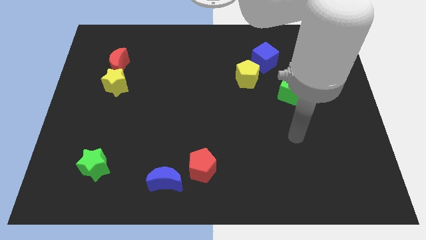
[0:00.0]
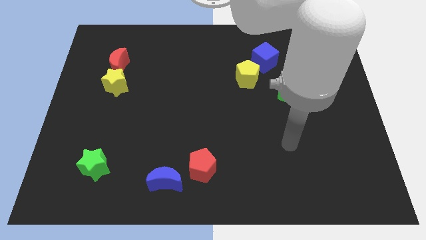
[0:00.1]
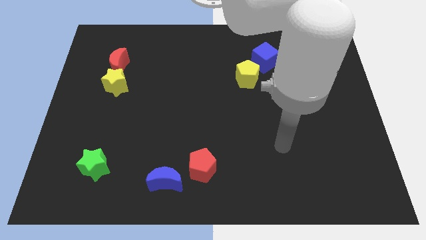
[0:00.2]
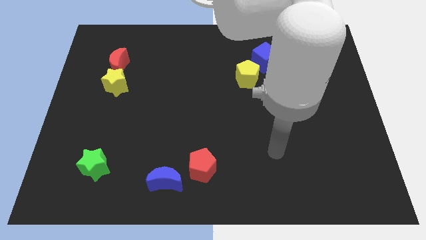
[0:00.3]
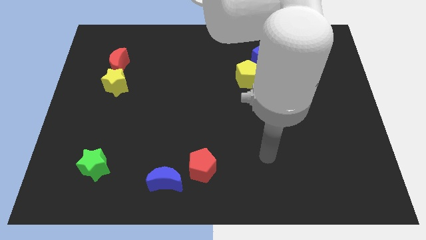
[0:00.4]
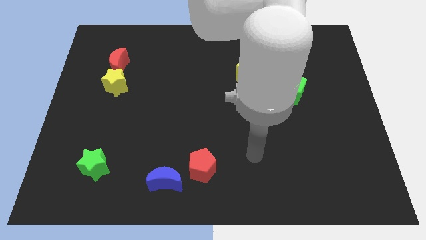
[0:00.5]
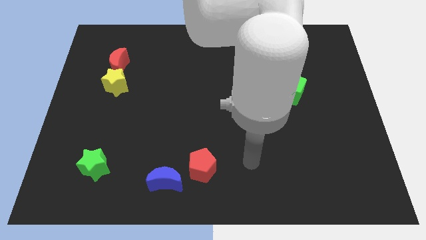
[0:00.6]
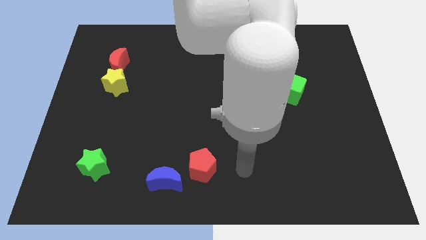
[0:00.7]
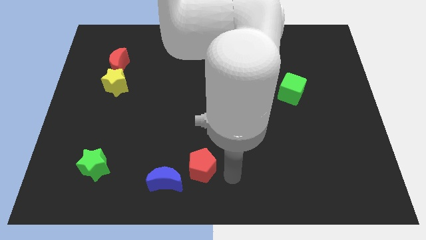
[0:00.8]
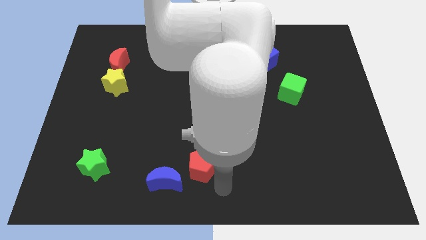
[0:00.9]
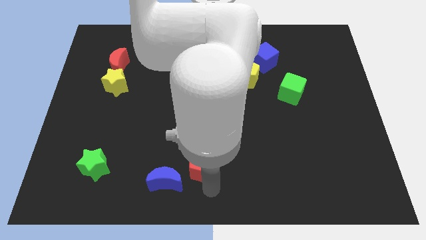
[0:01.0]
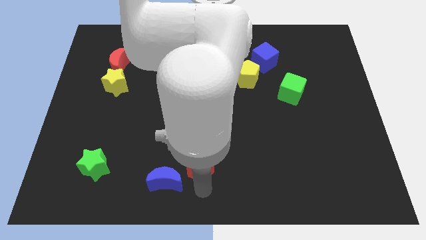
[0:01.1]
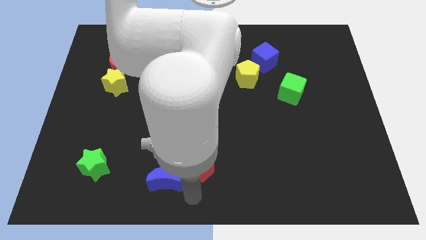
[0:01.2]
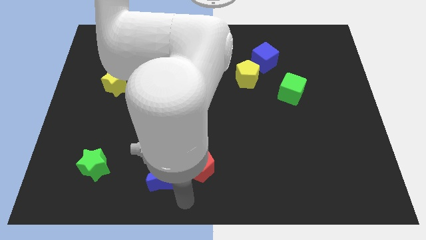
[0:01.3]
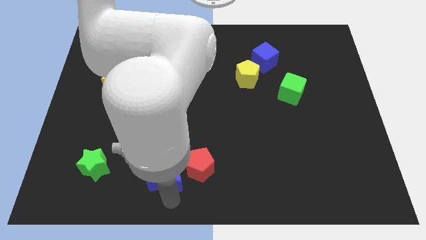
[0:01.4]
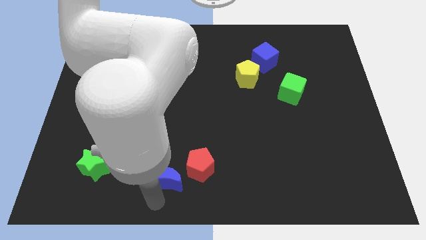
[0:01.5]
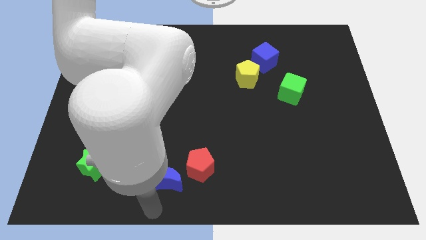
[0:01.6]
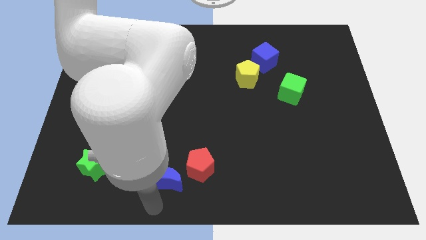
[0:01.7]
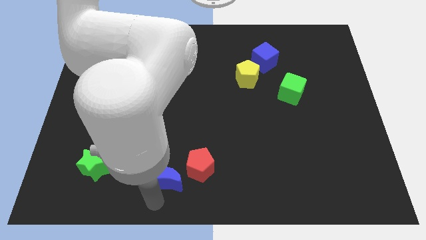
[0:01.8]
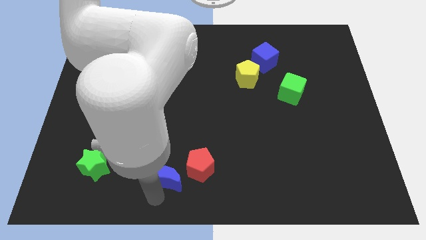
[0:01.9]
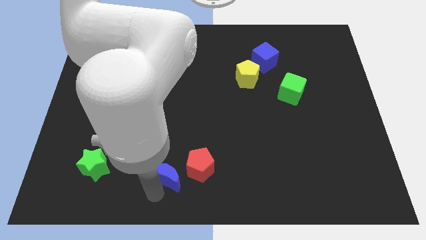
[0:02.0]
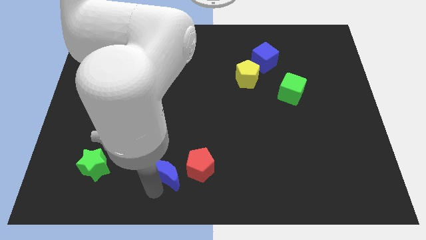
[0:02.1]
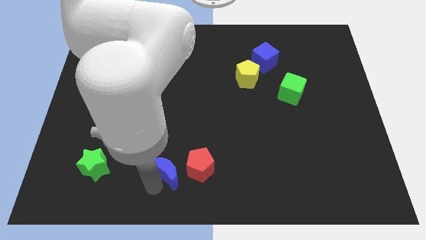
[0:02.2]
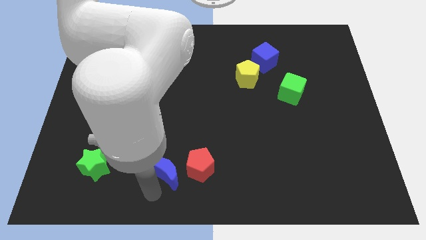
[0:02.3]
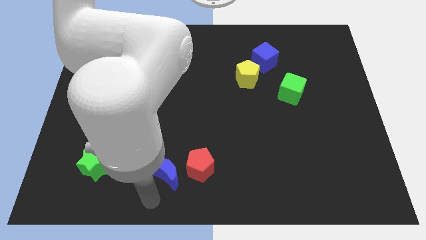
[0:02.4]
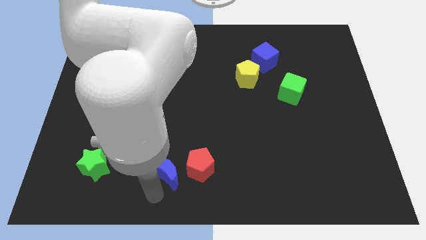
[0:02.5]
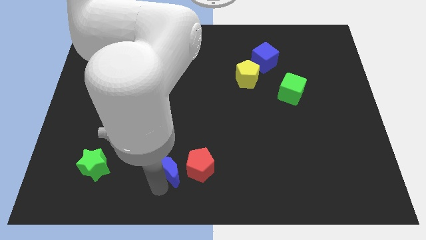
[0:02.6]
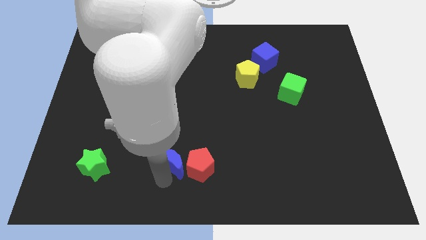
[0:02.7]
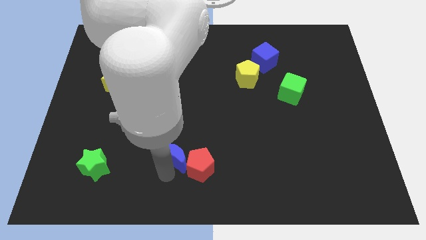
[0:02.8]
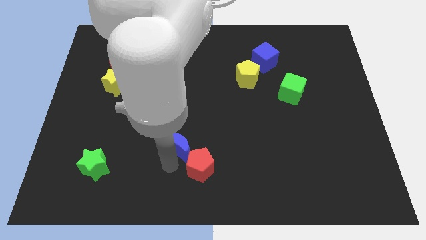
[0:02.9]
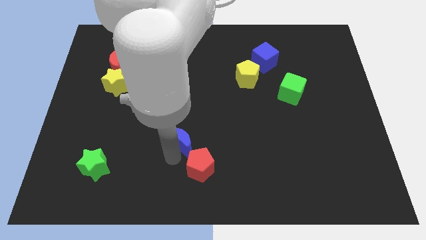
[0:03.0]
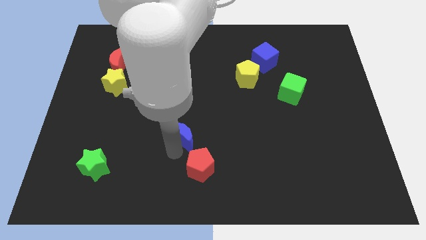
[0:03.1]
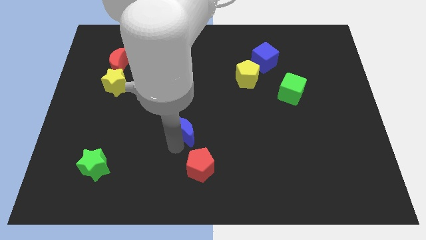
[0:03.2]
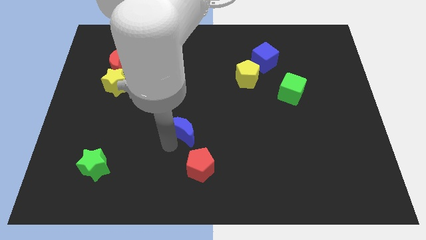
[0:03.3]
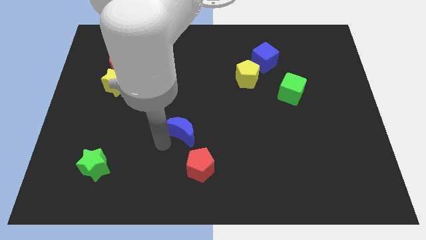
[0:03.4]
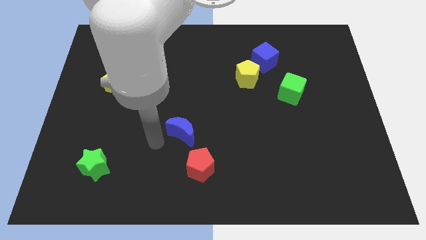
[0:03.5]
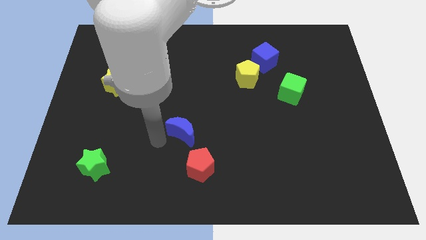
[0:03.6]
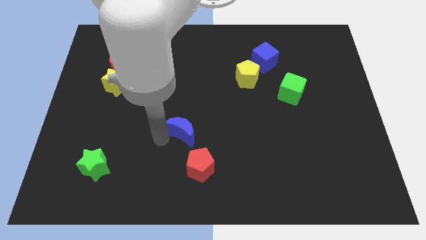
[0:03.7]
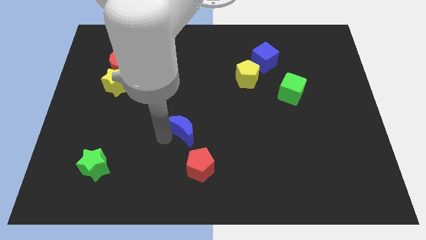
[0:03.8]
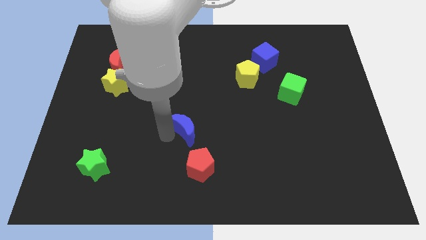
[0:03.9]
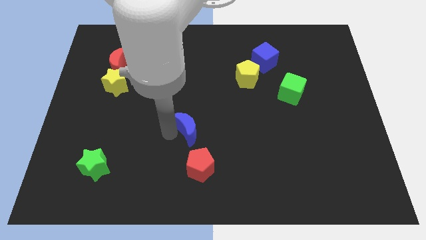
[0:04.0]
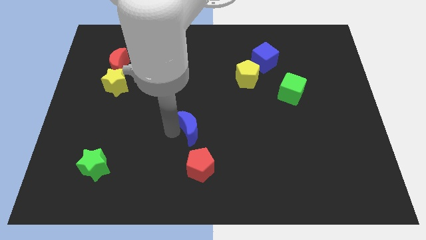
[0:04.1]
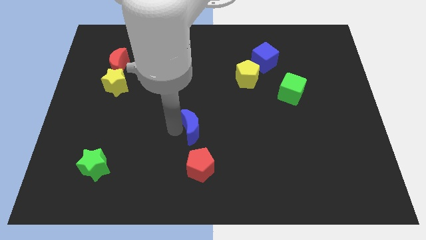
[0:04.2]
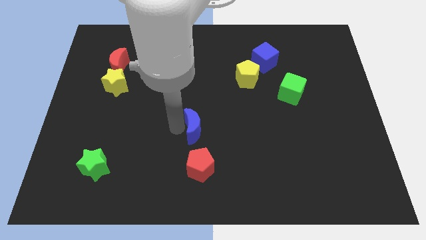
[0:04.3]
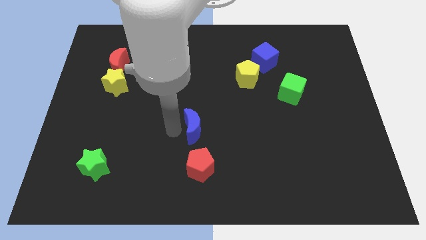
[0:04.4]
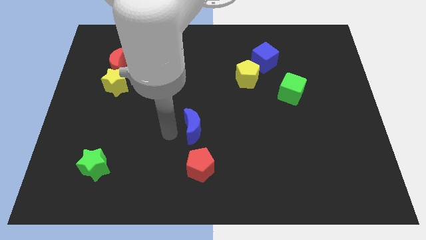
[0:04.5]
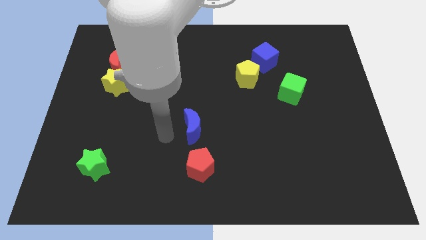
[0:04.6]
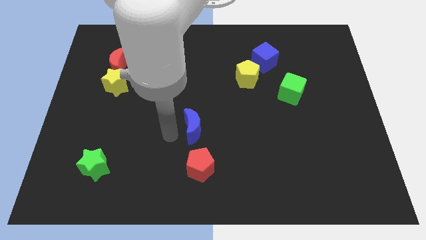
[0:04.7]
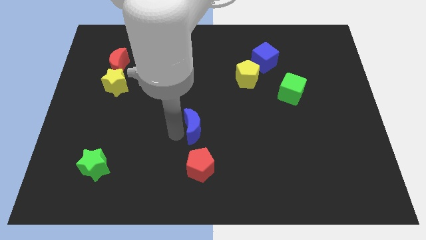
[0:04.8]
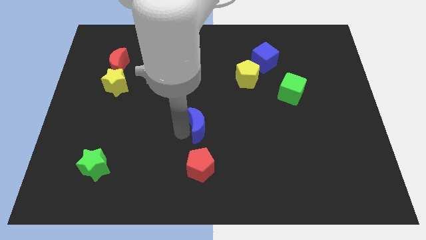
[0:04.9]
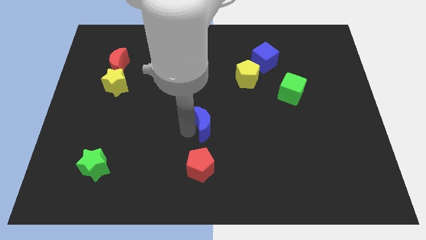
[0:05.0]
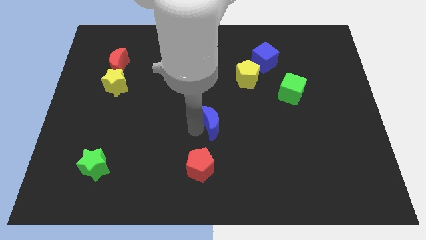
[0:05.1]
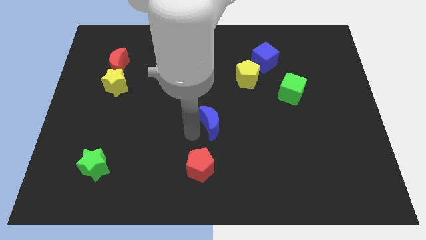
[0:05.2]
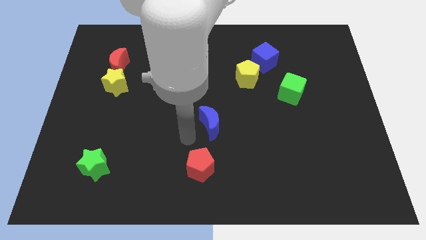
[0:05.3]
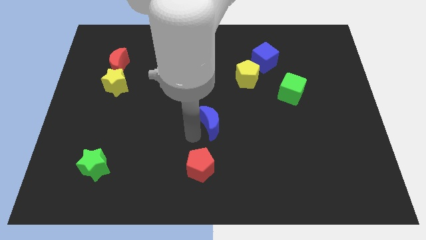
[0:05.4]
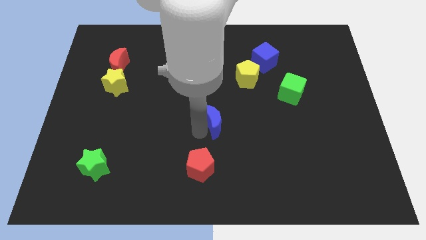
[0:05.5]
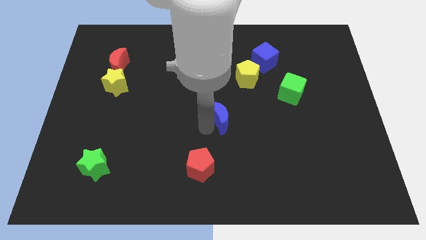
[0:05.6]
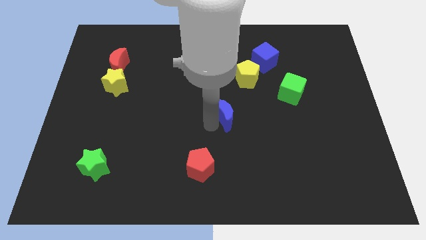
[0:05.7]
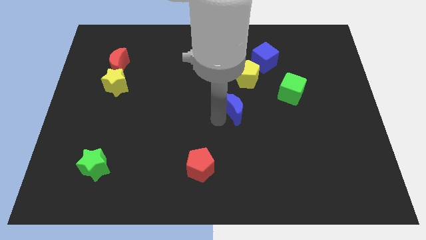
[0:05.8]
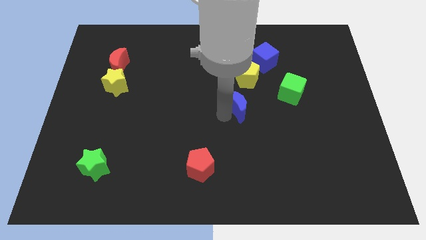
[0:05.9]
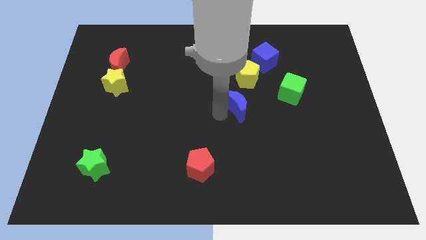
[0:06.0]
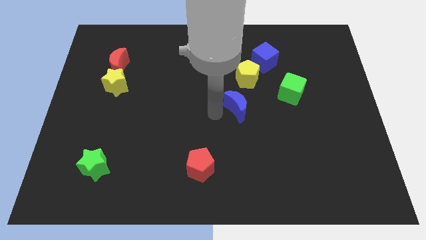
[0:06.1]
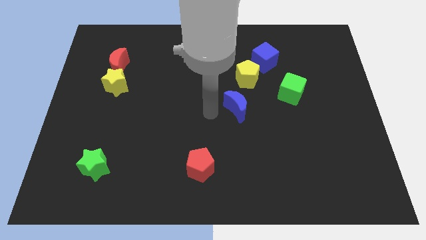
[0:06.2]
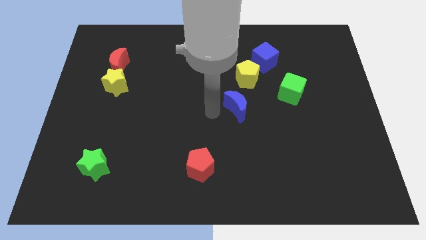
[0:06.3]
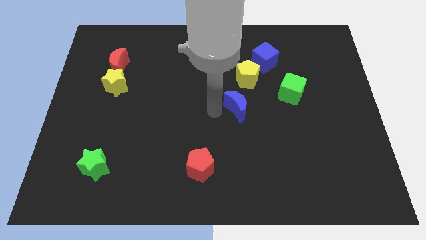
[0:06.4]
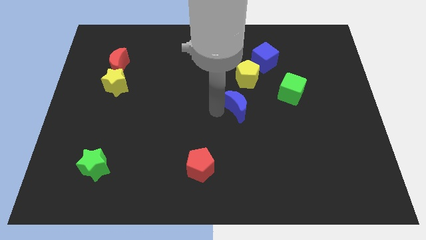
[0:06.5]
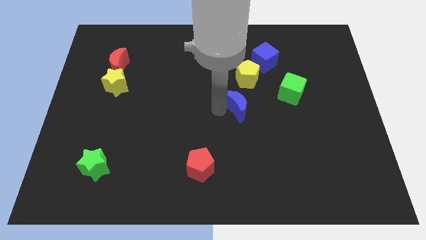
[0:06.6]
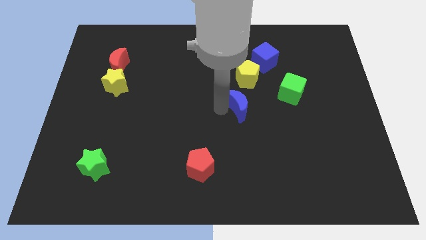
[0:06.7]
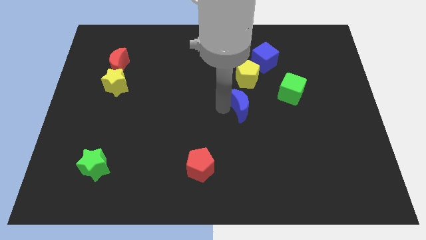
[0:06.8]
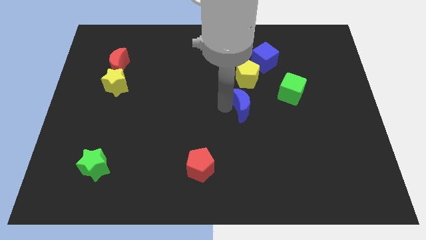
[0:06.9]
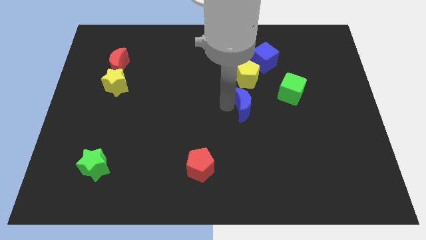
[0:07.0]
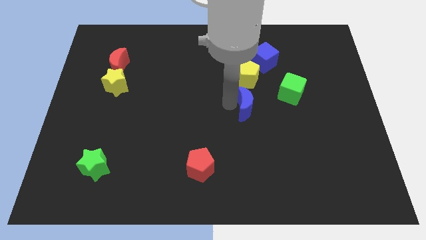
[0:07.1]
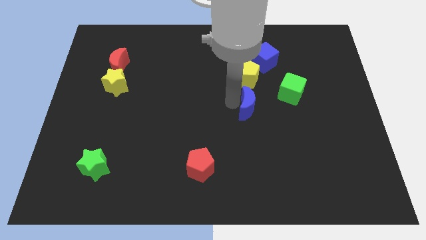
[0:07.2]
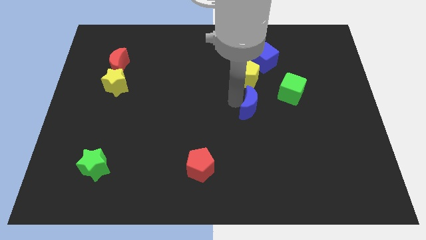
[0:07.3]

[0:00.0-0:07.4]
move the blue moon diagonally down and to the left of the green cube
